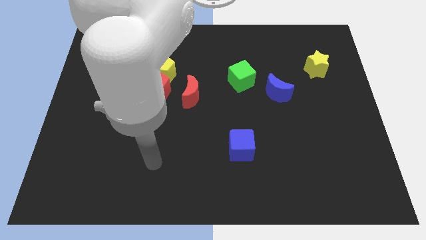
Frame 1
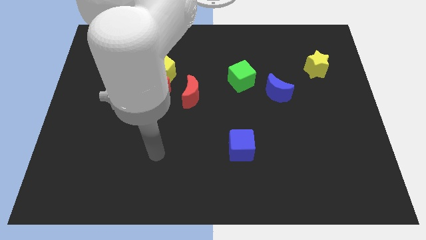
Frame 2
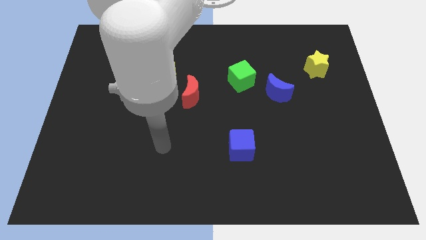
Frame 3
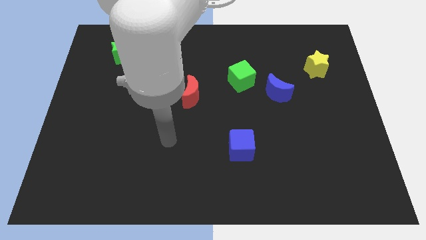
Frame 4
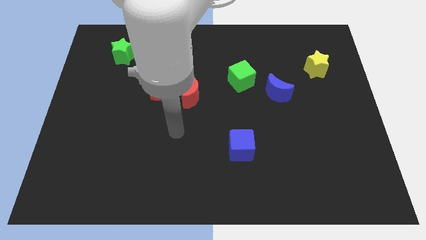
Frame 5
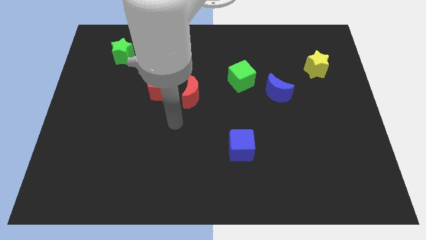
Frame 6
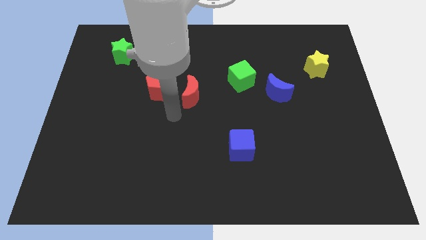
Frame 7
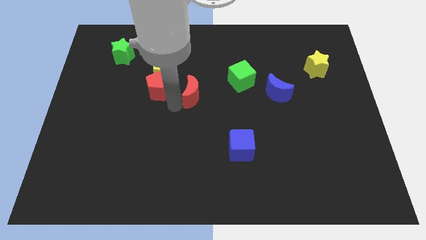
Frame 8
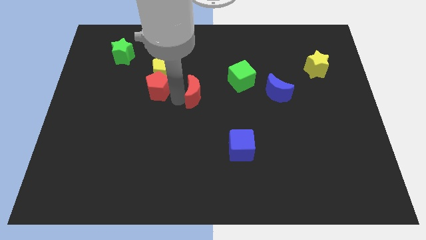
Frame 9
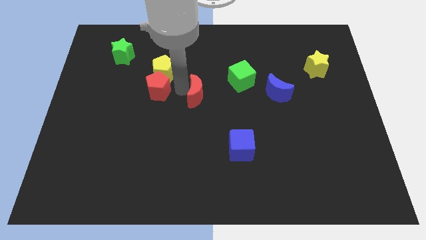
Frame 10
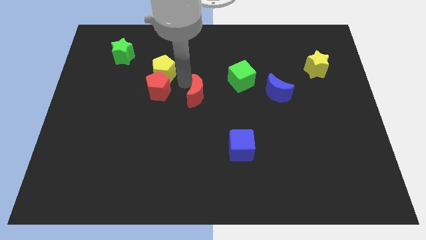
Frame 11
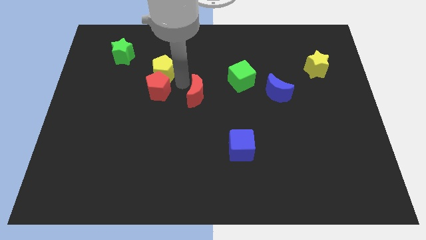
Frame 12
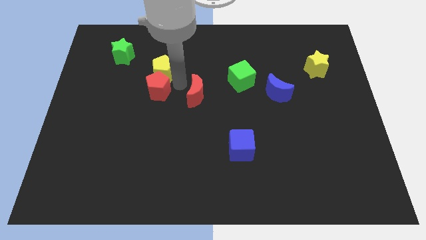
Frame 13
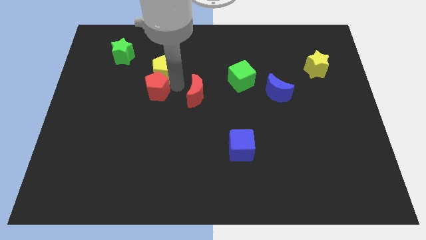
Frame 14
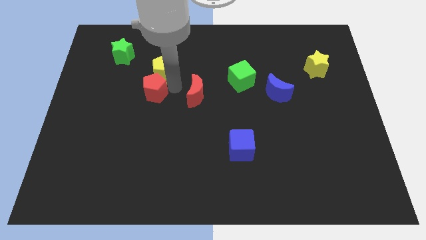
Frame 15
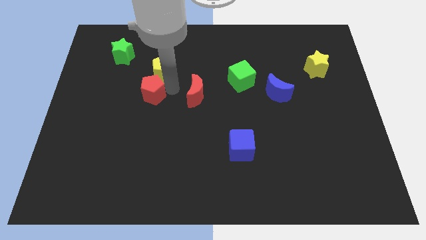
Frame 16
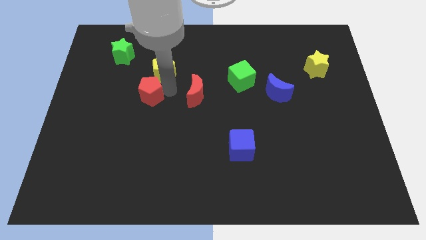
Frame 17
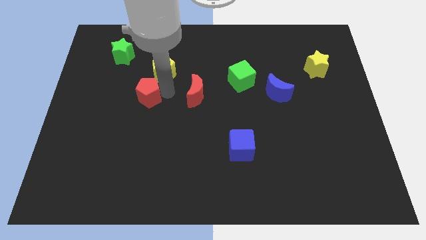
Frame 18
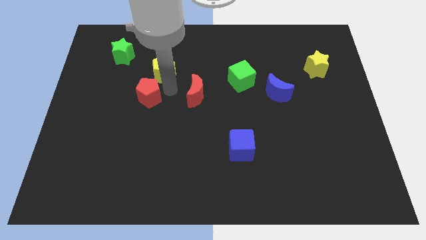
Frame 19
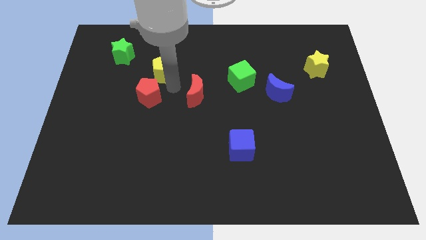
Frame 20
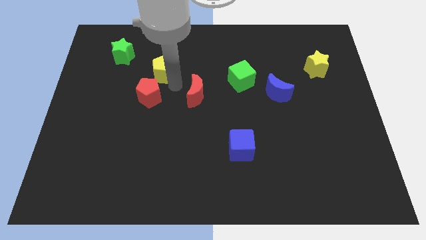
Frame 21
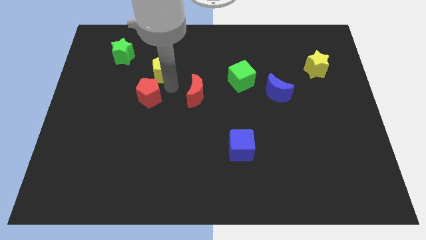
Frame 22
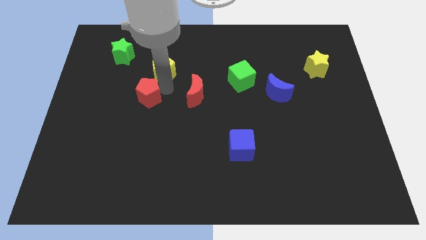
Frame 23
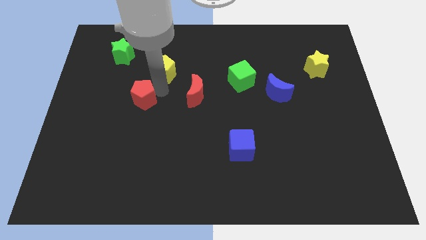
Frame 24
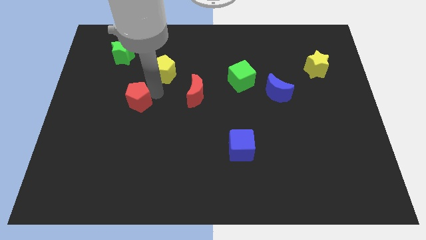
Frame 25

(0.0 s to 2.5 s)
separate the red pentagon from the yellow pentagon and red moon

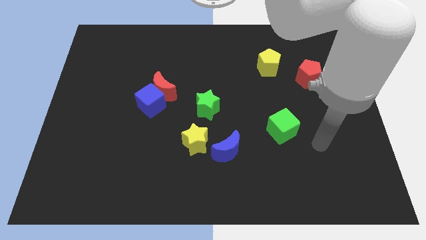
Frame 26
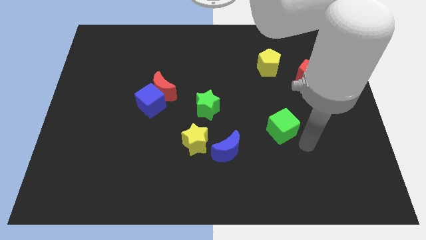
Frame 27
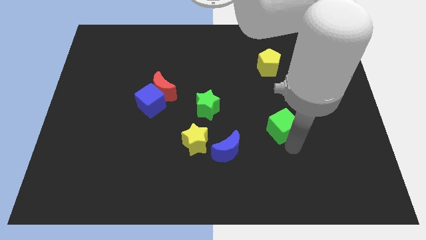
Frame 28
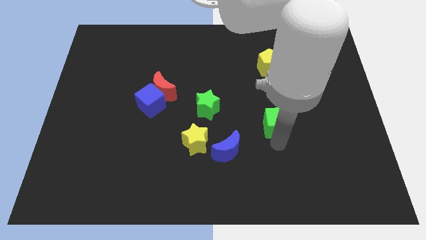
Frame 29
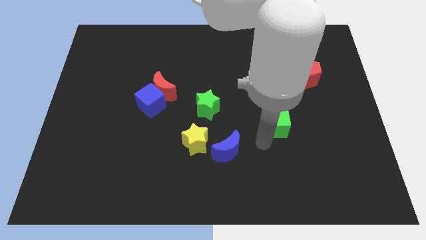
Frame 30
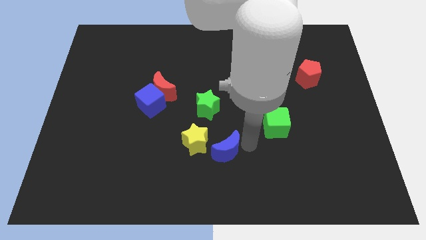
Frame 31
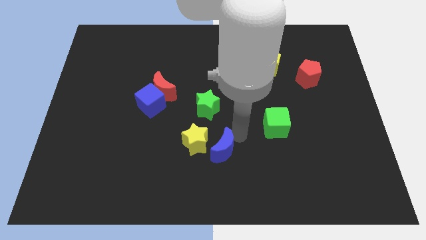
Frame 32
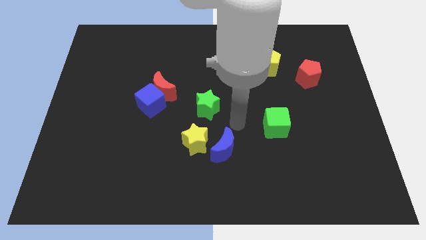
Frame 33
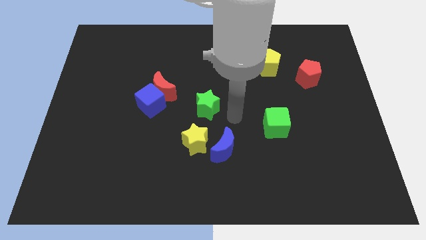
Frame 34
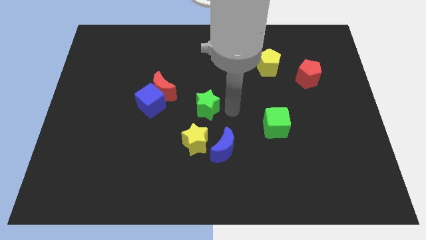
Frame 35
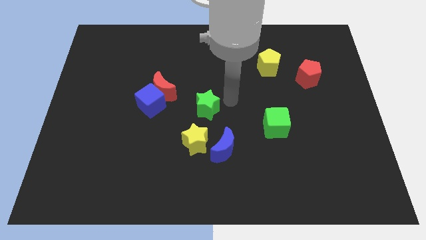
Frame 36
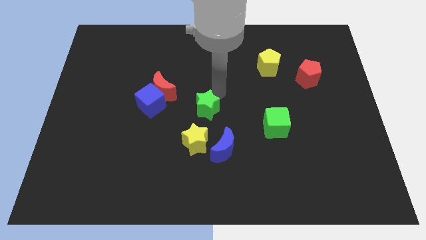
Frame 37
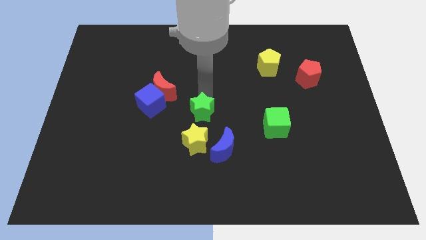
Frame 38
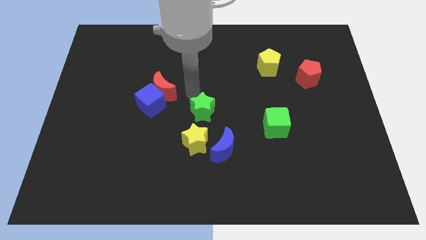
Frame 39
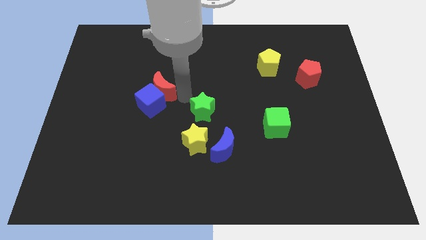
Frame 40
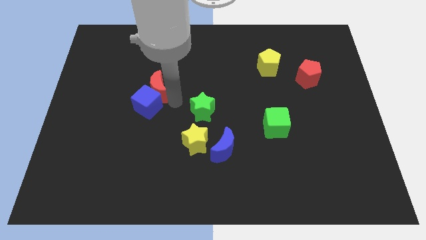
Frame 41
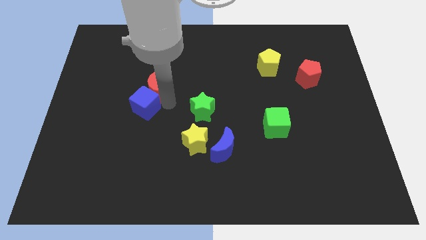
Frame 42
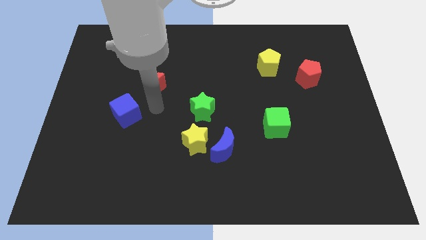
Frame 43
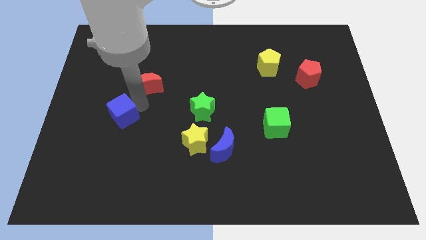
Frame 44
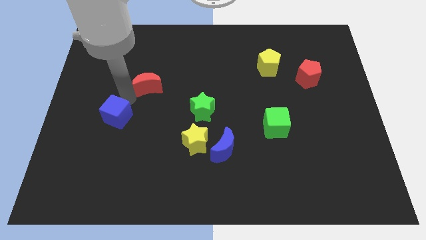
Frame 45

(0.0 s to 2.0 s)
separate the red moon from the blue cube

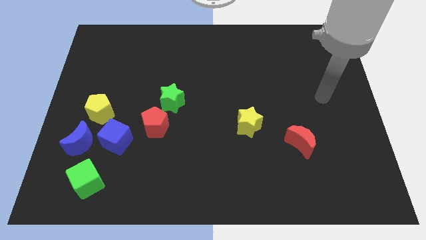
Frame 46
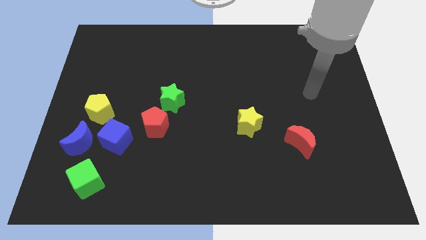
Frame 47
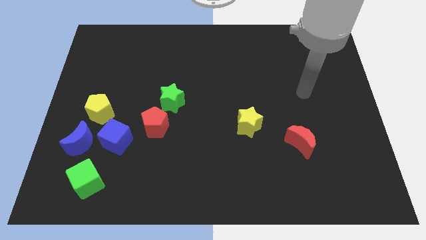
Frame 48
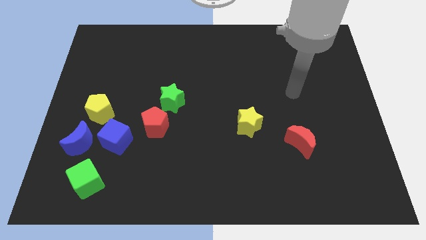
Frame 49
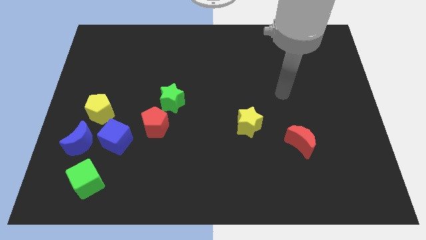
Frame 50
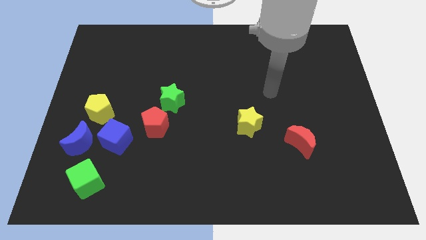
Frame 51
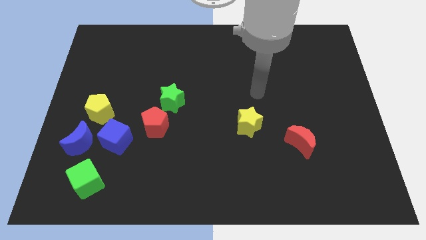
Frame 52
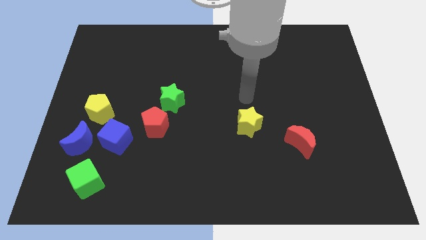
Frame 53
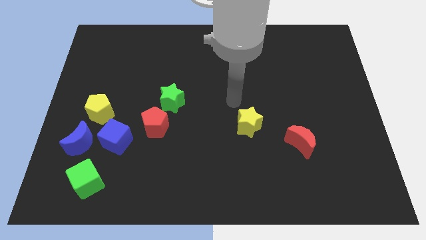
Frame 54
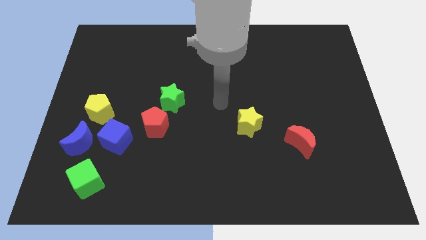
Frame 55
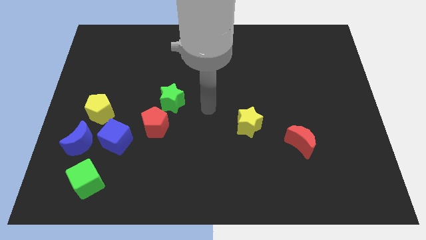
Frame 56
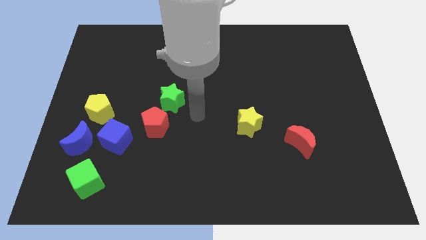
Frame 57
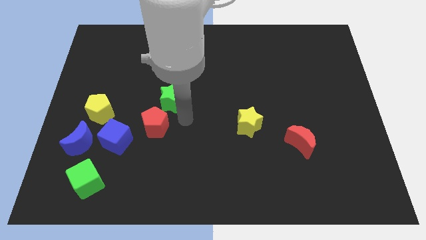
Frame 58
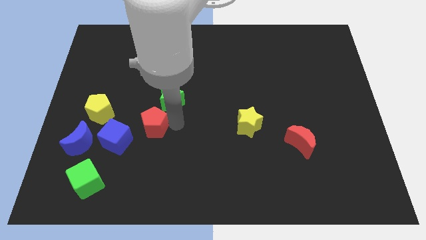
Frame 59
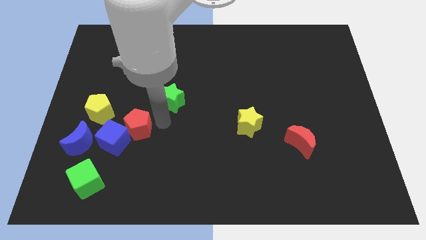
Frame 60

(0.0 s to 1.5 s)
pull the green star apart from the red pentagon

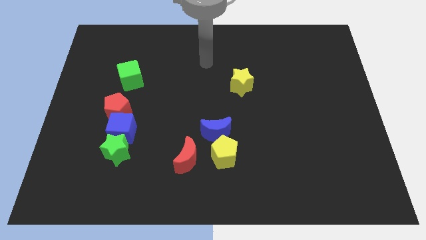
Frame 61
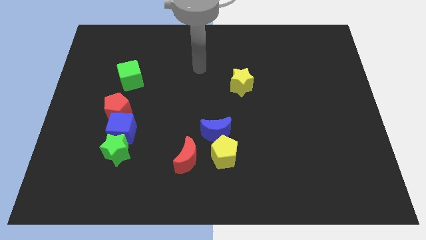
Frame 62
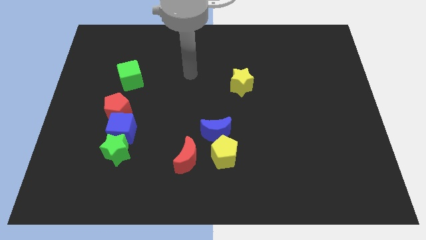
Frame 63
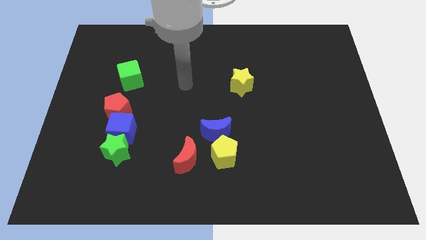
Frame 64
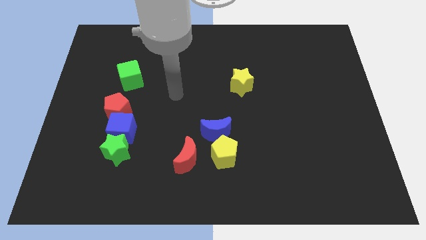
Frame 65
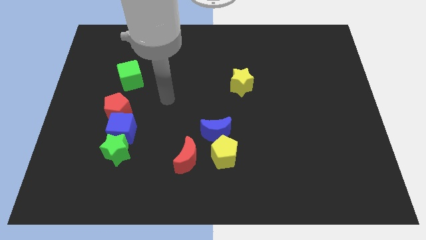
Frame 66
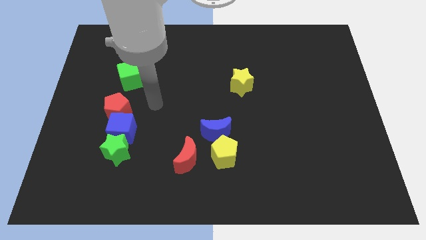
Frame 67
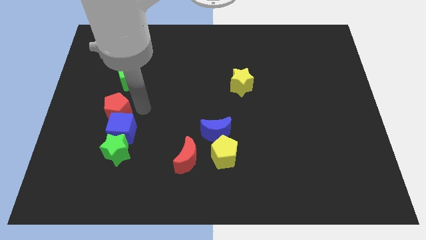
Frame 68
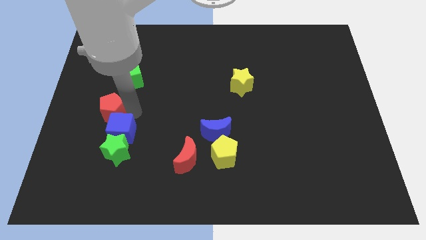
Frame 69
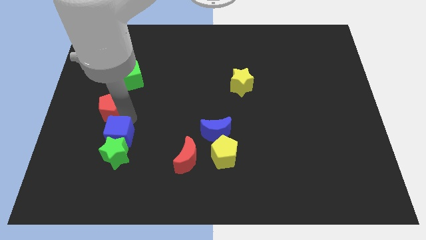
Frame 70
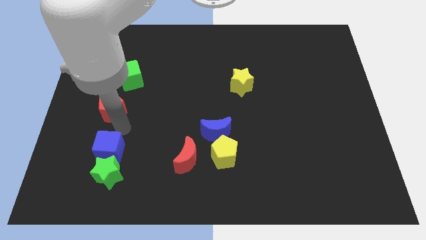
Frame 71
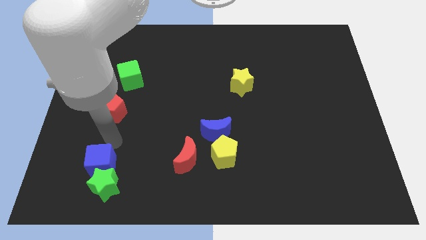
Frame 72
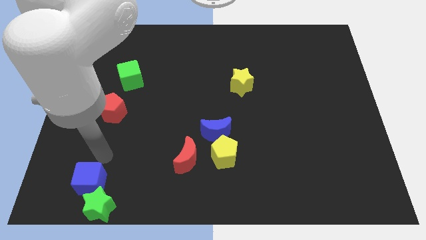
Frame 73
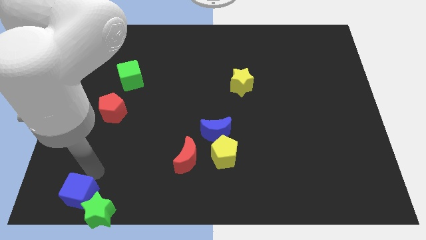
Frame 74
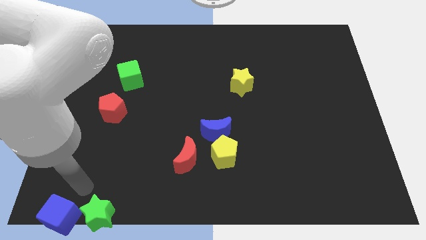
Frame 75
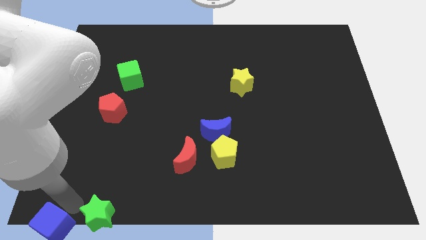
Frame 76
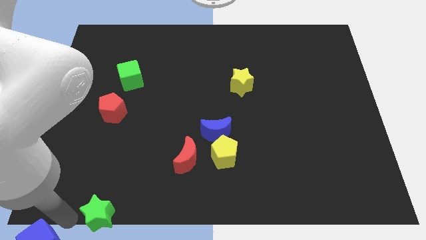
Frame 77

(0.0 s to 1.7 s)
move the green star away from the blue cube

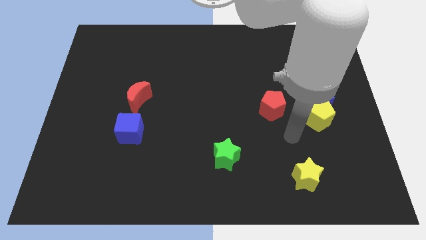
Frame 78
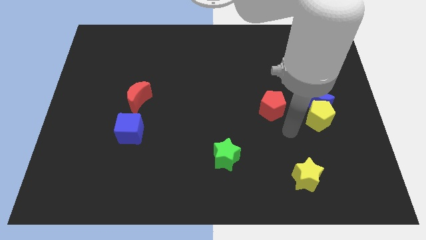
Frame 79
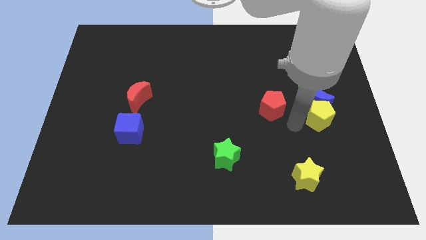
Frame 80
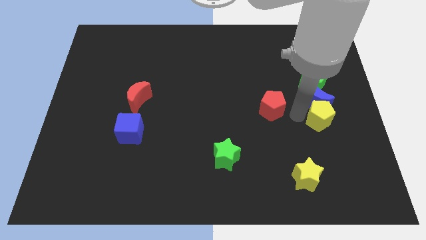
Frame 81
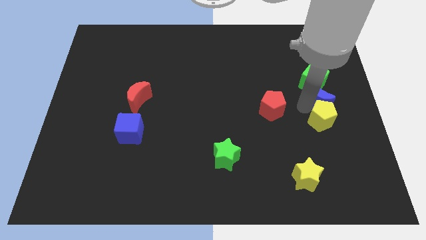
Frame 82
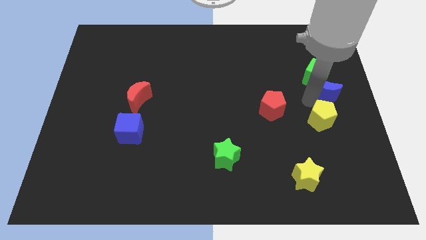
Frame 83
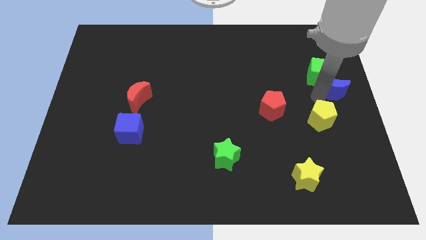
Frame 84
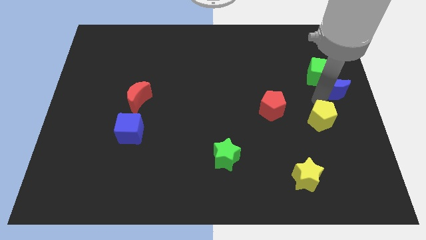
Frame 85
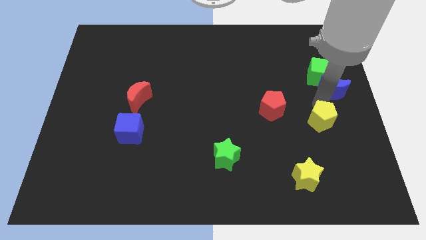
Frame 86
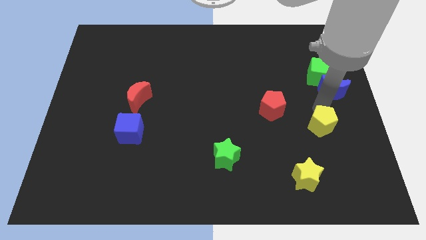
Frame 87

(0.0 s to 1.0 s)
separate the yellow pentagon from the blue moon

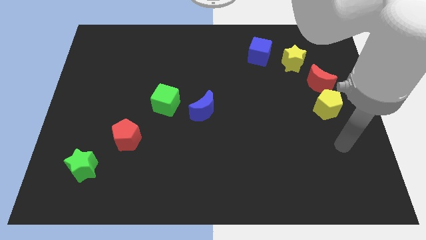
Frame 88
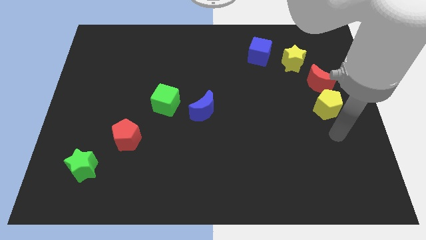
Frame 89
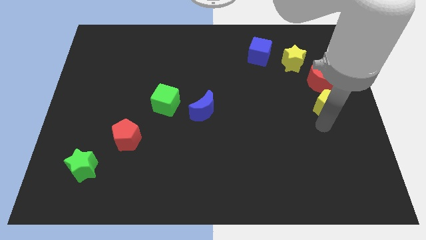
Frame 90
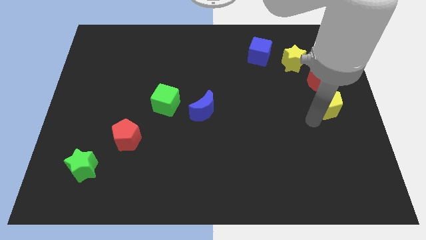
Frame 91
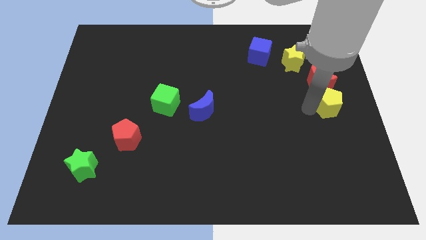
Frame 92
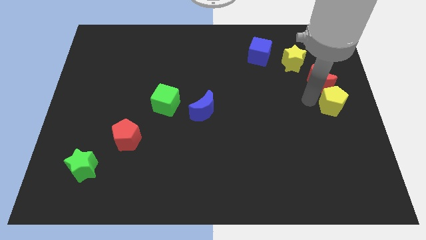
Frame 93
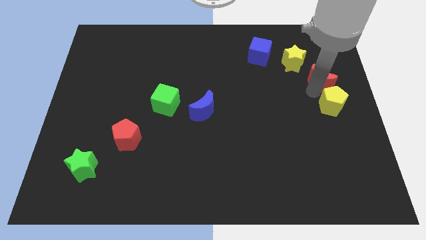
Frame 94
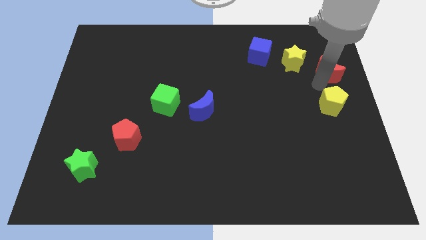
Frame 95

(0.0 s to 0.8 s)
move the yellow pentagon away from the red moon
